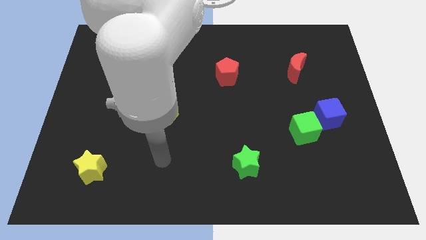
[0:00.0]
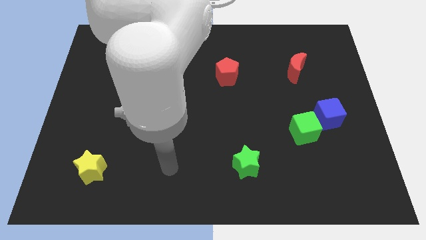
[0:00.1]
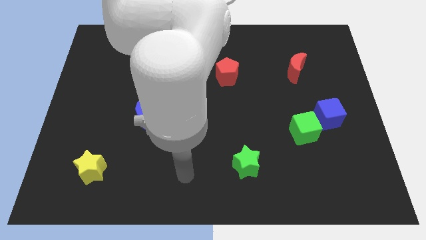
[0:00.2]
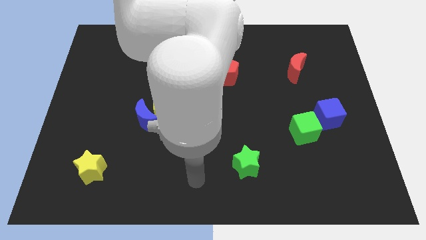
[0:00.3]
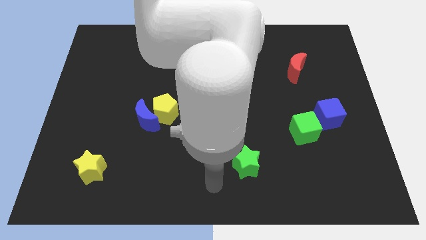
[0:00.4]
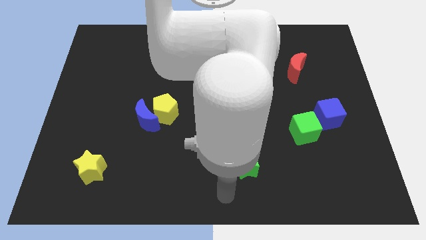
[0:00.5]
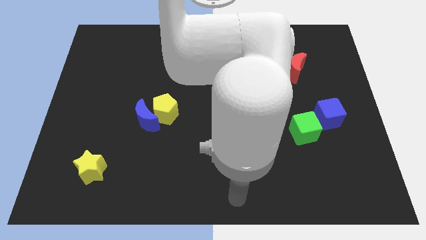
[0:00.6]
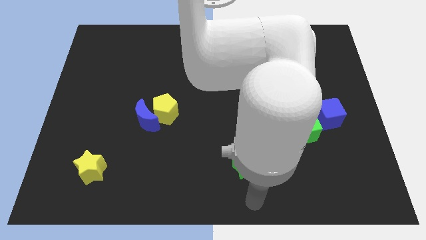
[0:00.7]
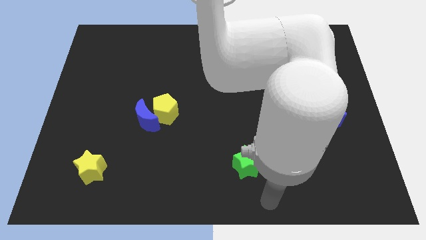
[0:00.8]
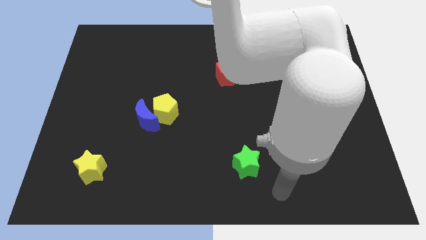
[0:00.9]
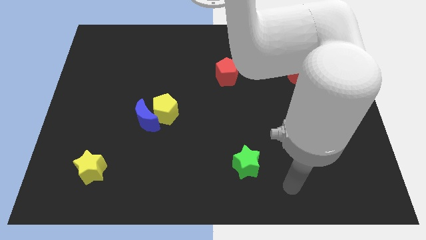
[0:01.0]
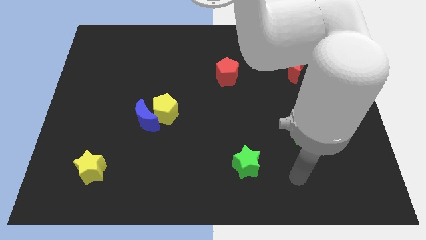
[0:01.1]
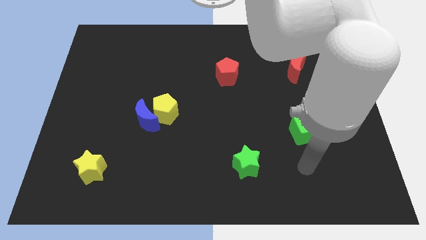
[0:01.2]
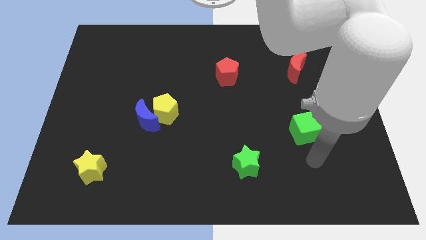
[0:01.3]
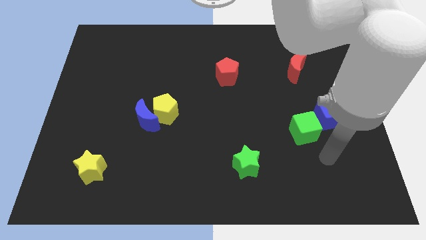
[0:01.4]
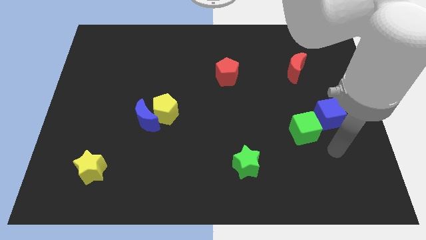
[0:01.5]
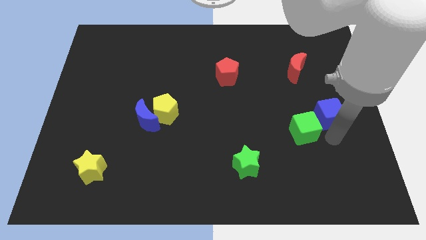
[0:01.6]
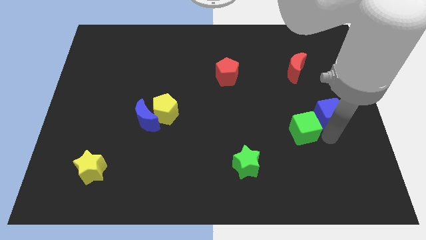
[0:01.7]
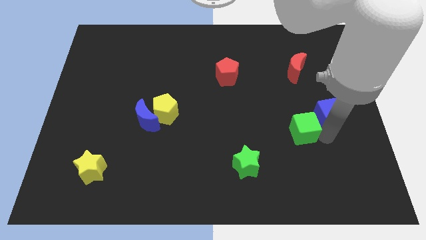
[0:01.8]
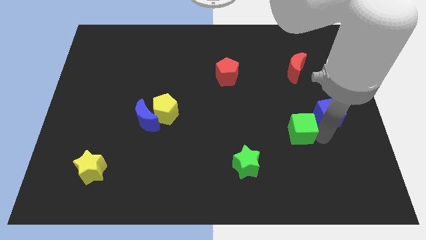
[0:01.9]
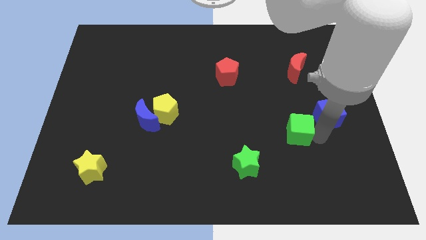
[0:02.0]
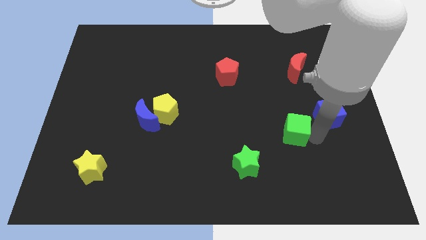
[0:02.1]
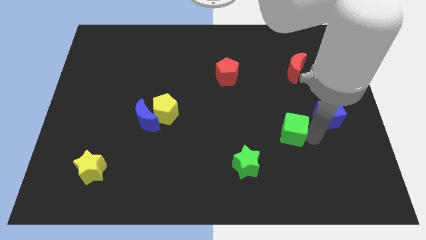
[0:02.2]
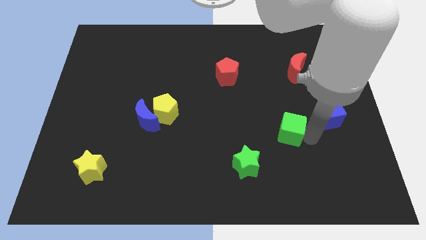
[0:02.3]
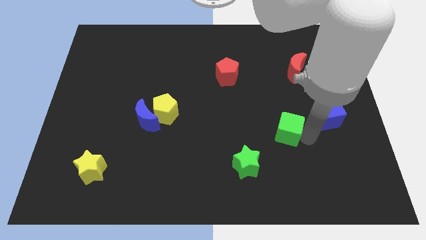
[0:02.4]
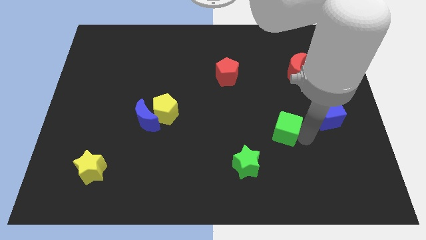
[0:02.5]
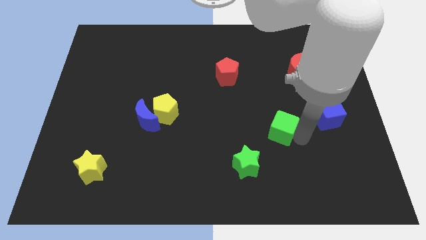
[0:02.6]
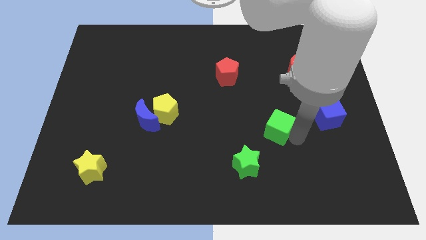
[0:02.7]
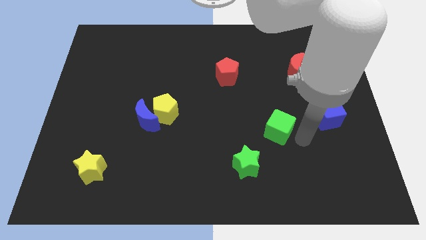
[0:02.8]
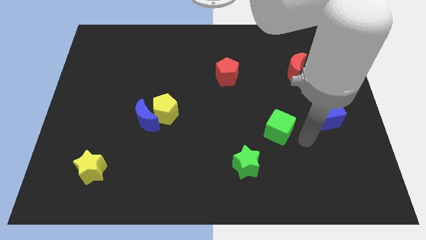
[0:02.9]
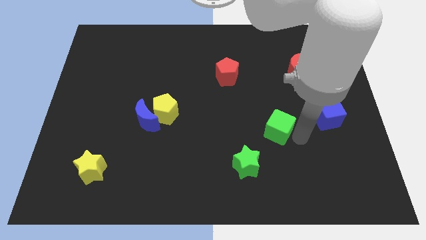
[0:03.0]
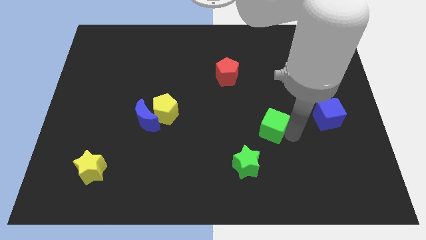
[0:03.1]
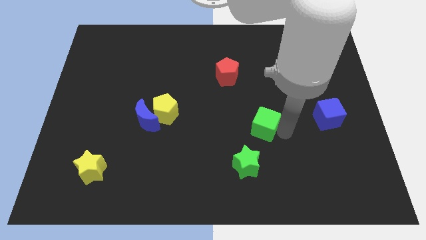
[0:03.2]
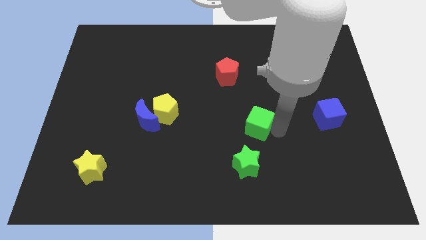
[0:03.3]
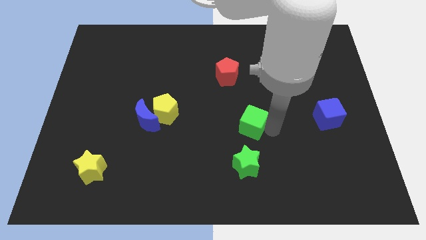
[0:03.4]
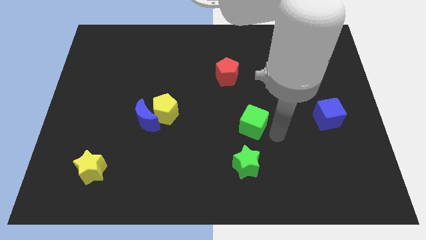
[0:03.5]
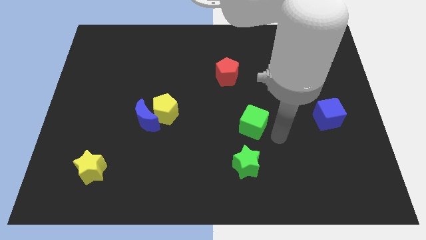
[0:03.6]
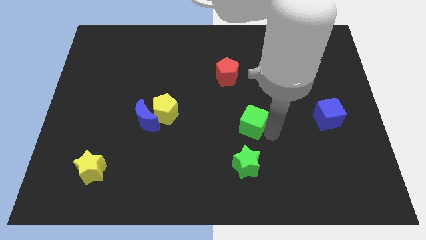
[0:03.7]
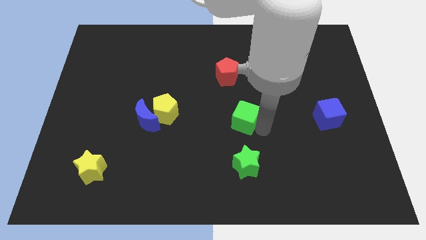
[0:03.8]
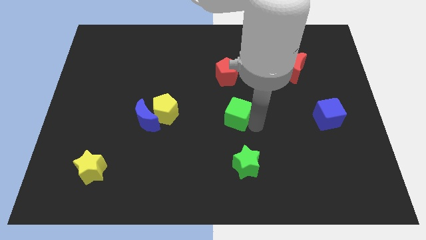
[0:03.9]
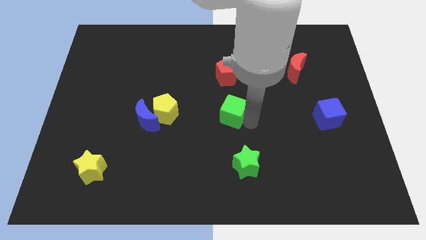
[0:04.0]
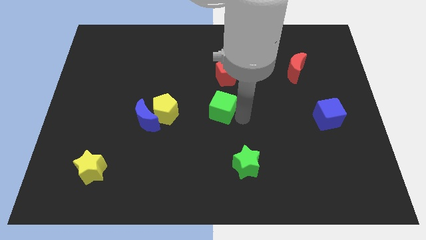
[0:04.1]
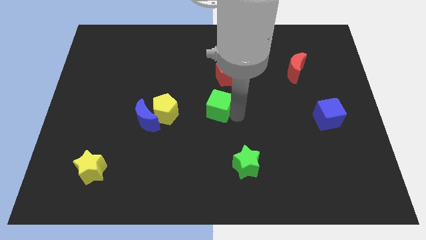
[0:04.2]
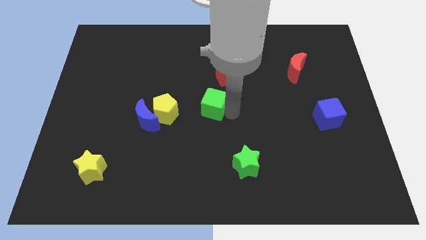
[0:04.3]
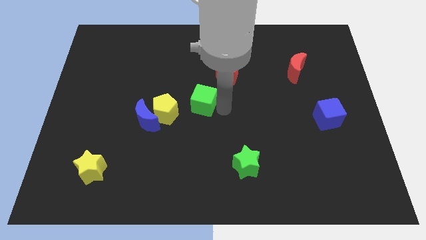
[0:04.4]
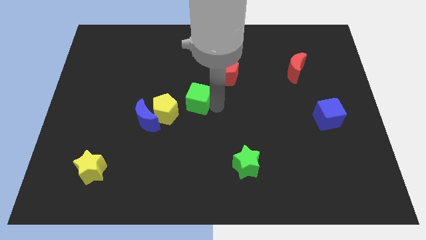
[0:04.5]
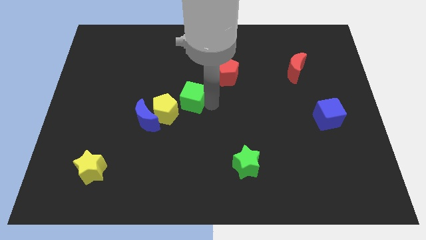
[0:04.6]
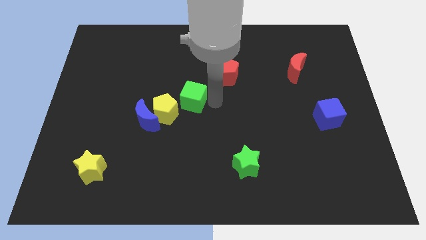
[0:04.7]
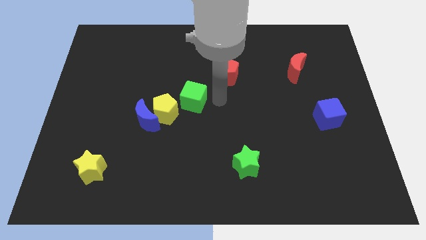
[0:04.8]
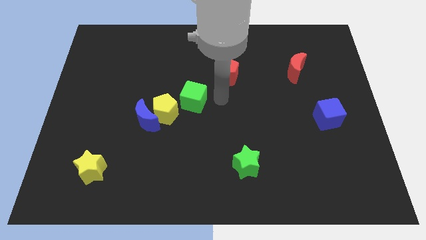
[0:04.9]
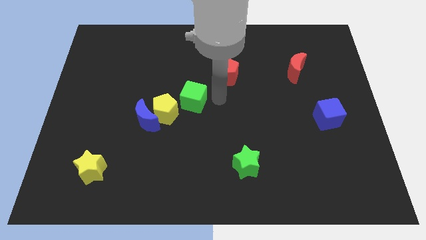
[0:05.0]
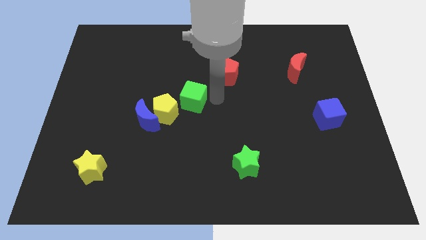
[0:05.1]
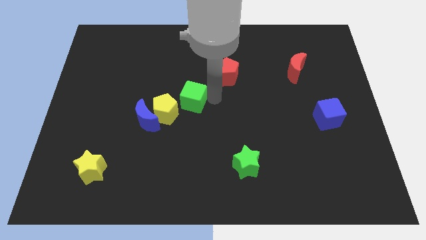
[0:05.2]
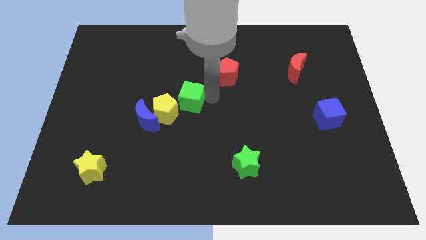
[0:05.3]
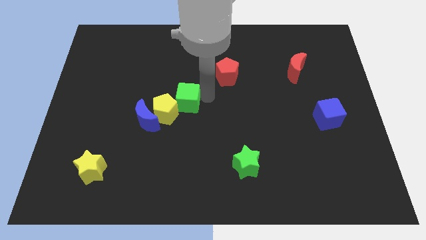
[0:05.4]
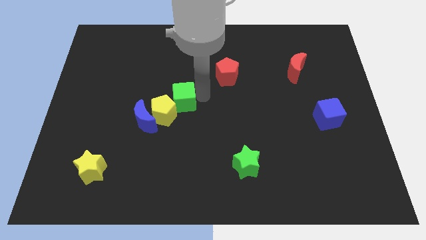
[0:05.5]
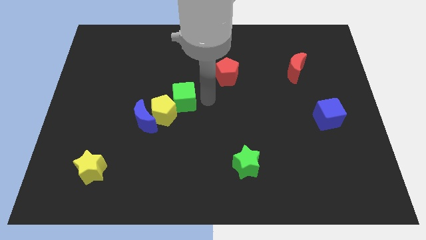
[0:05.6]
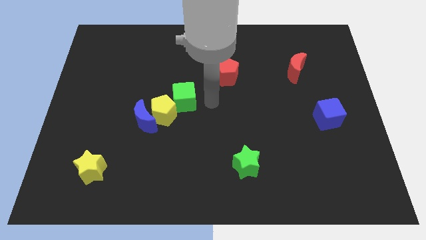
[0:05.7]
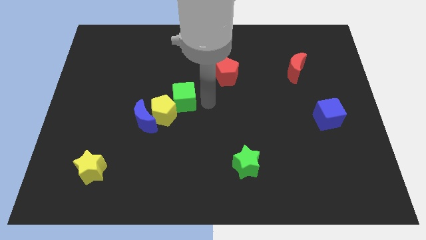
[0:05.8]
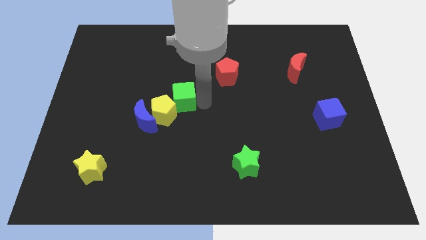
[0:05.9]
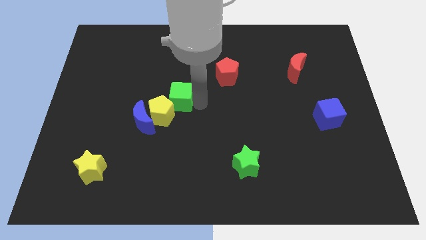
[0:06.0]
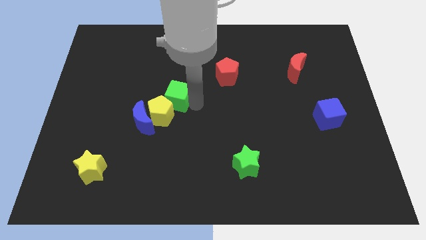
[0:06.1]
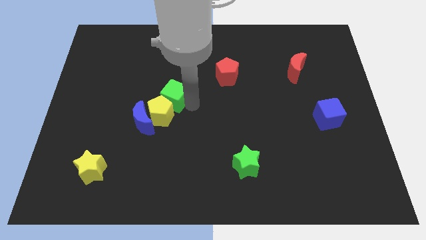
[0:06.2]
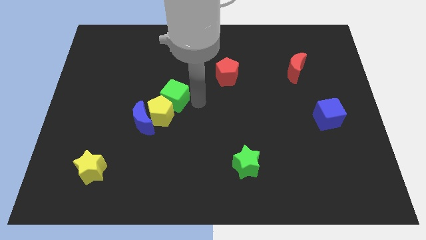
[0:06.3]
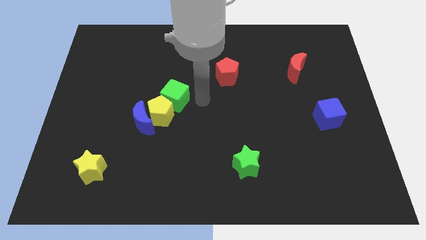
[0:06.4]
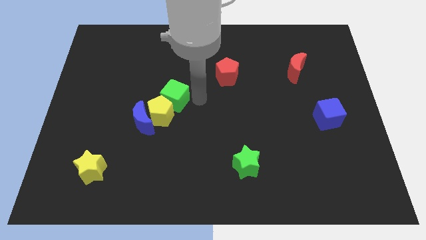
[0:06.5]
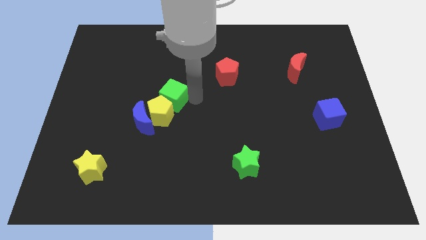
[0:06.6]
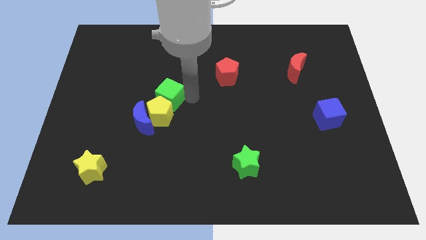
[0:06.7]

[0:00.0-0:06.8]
put the green cube to the top left of the yellow pentagon

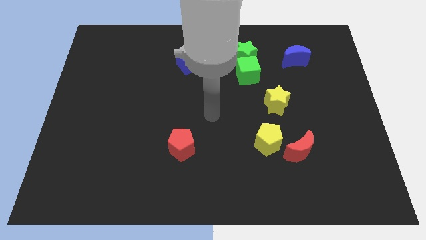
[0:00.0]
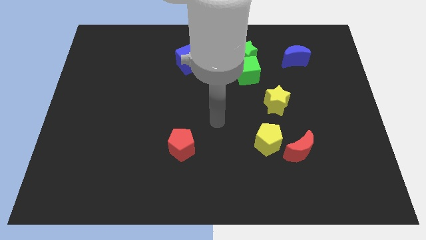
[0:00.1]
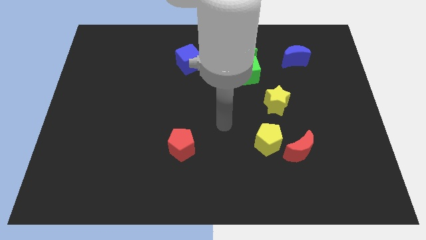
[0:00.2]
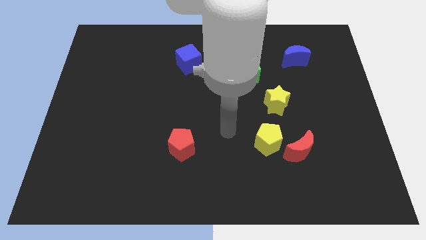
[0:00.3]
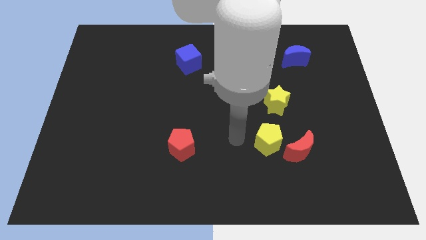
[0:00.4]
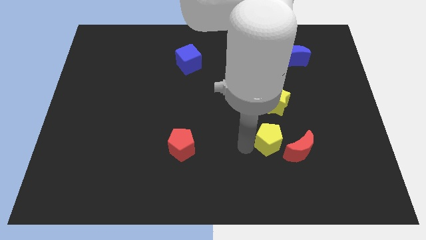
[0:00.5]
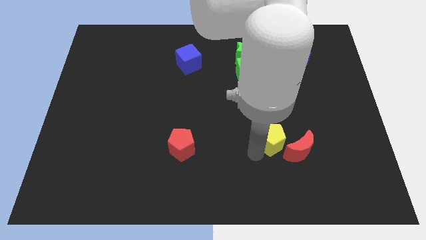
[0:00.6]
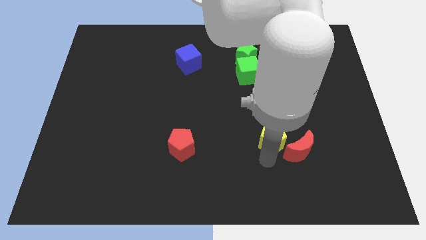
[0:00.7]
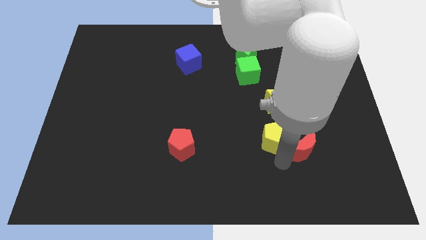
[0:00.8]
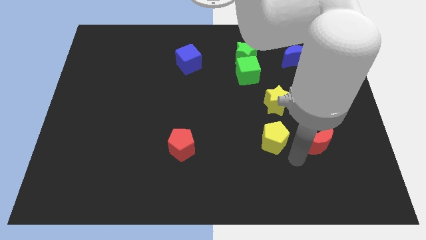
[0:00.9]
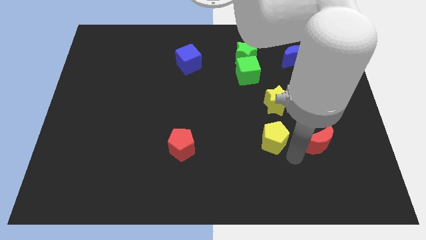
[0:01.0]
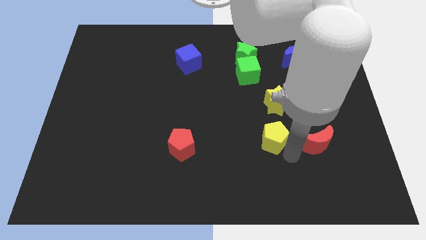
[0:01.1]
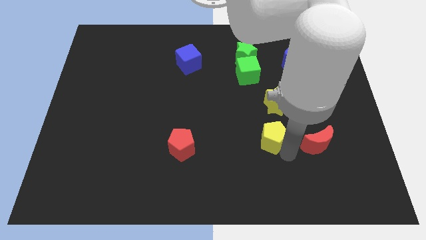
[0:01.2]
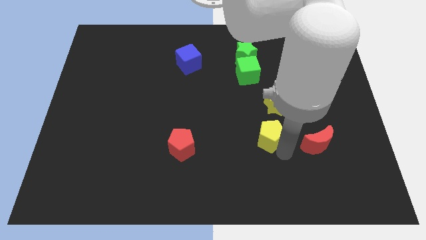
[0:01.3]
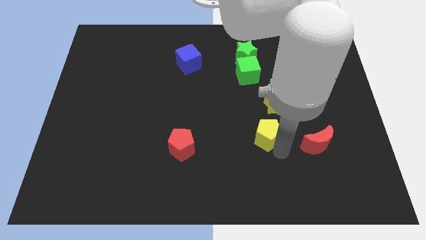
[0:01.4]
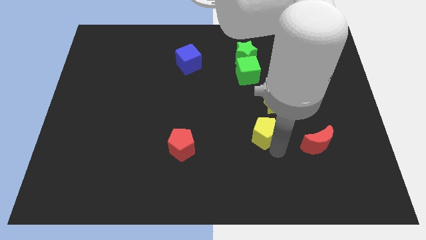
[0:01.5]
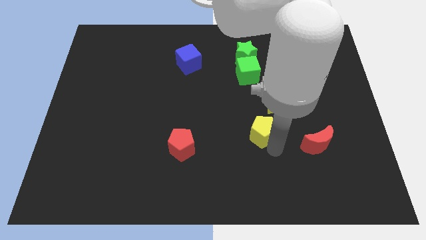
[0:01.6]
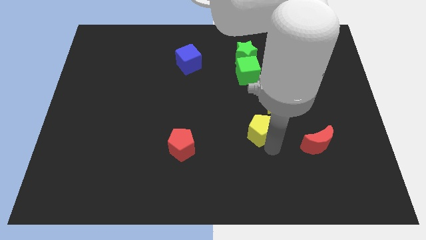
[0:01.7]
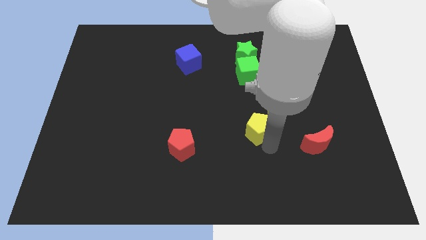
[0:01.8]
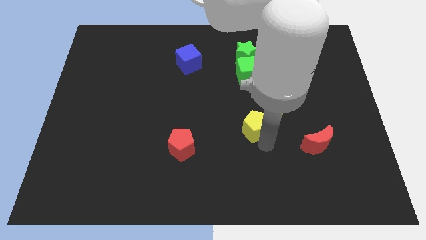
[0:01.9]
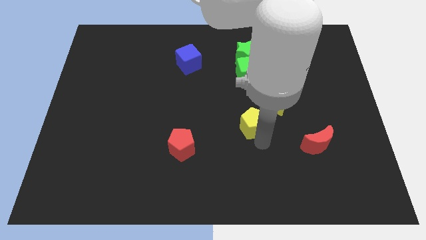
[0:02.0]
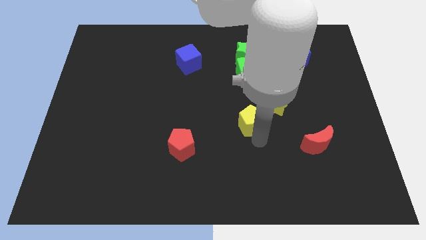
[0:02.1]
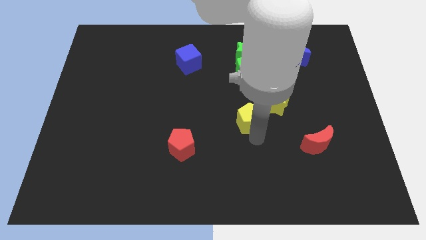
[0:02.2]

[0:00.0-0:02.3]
move the yellow pentagon just left of the yellow star
